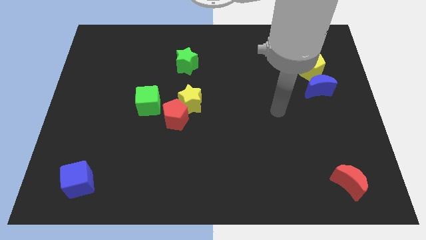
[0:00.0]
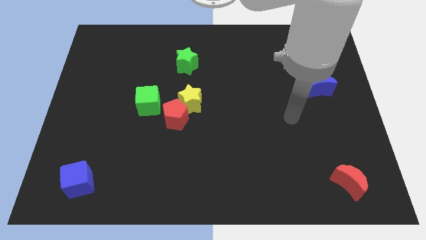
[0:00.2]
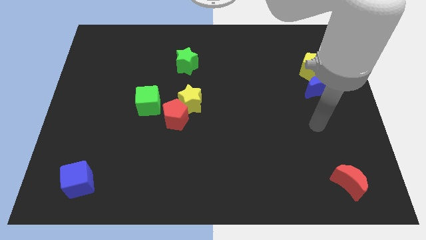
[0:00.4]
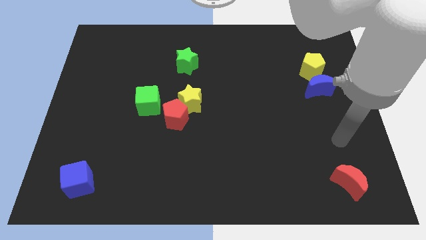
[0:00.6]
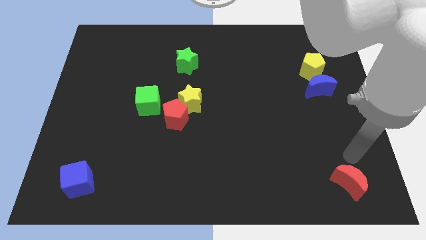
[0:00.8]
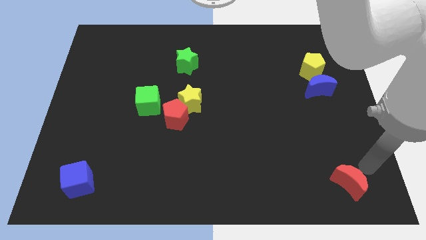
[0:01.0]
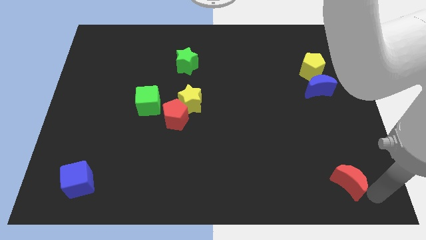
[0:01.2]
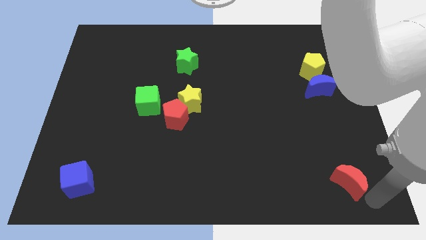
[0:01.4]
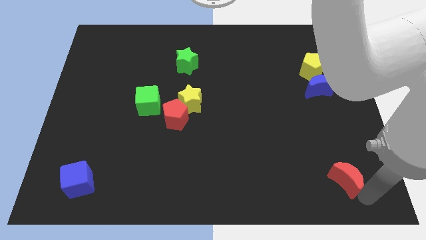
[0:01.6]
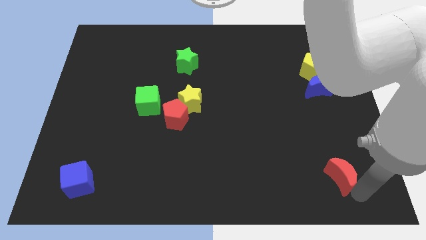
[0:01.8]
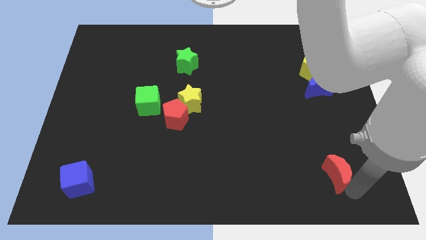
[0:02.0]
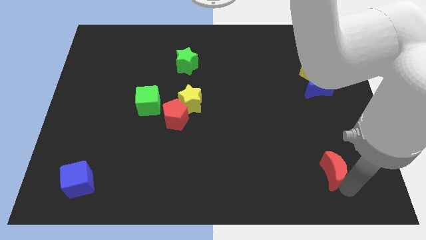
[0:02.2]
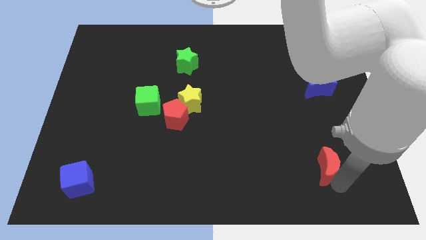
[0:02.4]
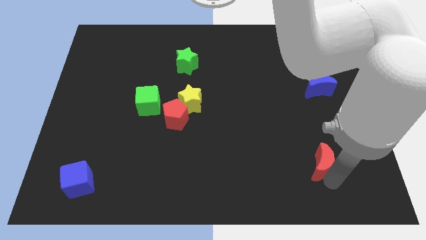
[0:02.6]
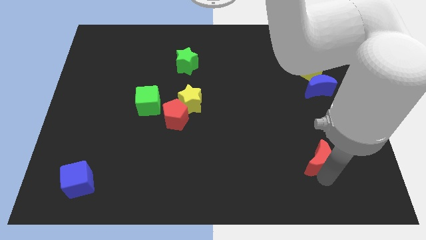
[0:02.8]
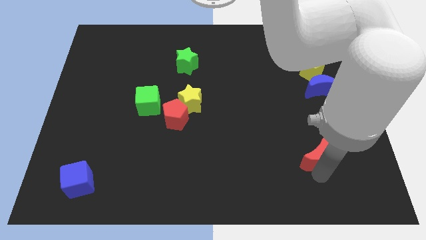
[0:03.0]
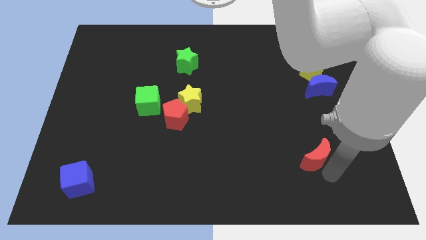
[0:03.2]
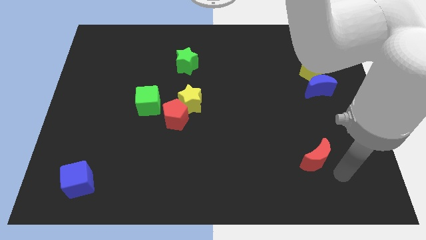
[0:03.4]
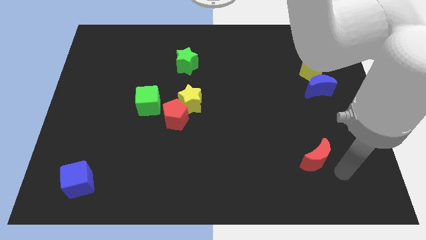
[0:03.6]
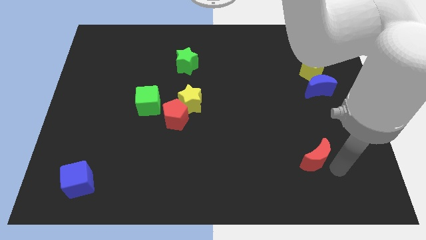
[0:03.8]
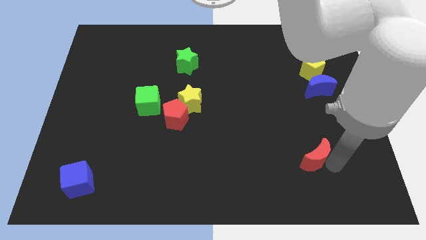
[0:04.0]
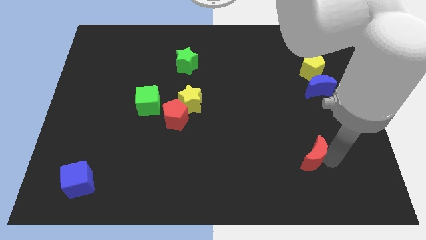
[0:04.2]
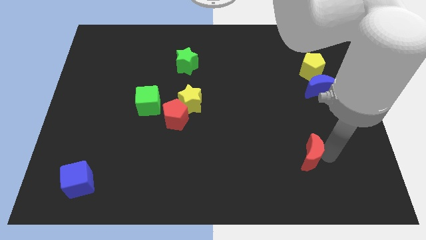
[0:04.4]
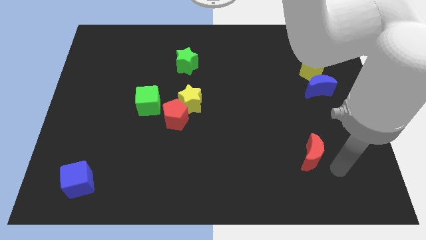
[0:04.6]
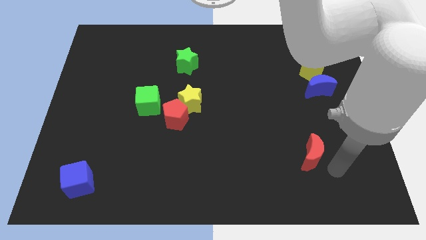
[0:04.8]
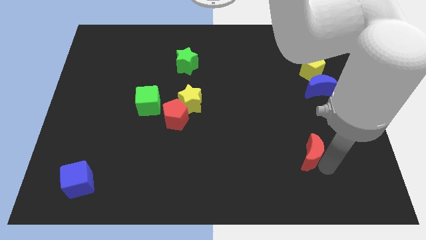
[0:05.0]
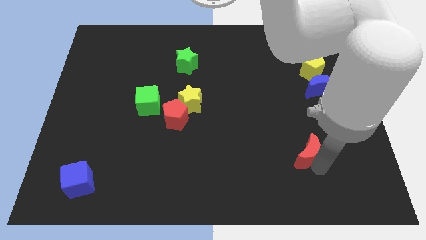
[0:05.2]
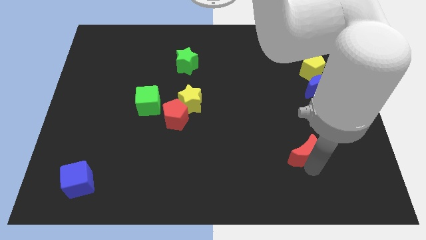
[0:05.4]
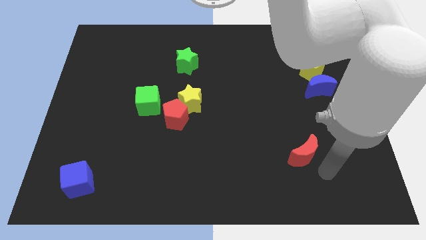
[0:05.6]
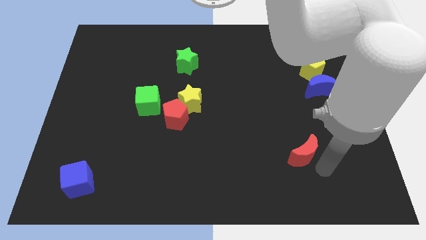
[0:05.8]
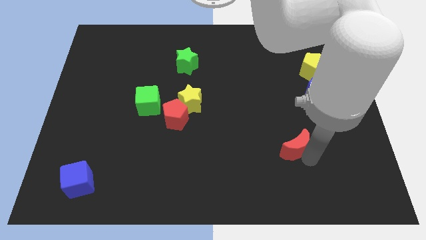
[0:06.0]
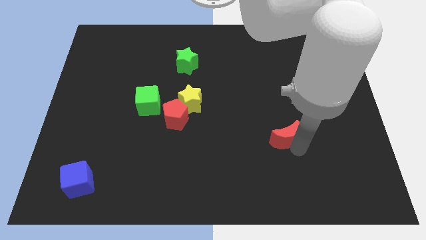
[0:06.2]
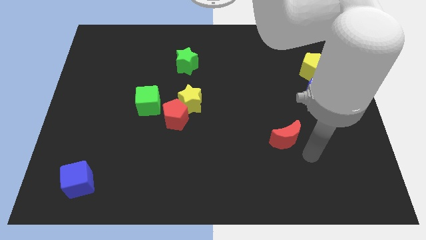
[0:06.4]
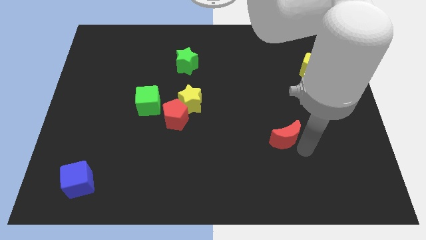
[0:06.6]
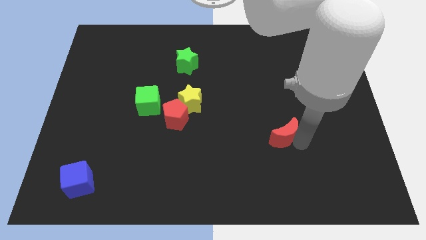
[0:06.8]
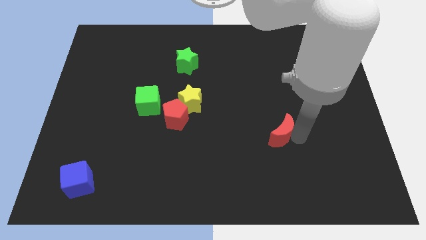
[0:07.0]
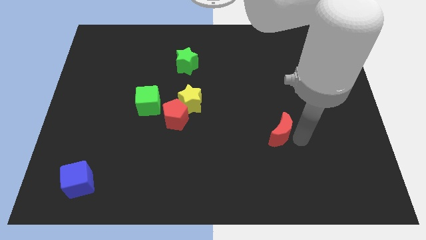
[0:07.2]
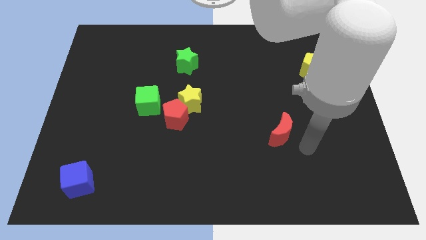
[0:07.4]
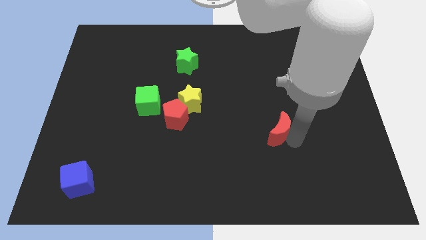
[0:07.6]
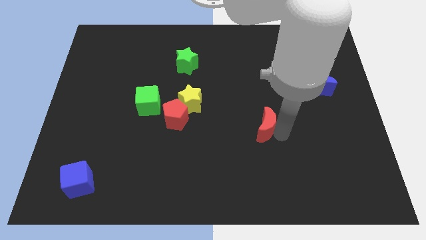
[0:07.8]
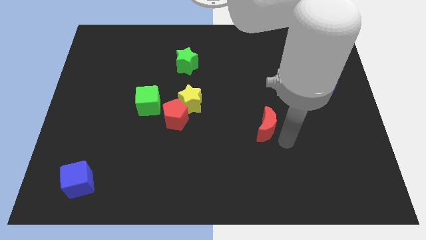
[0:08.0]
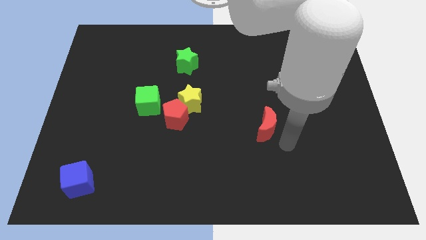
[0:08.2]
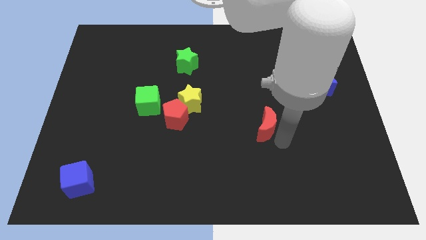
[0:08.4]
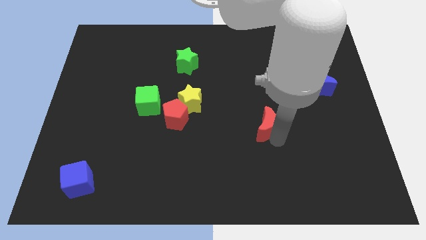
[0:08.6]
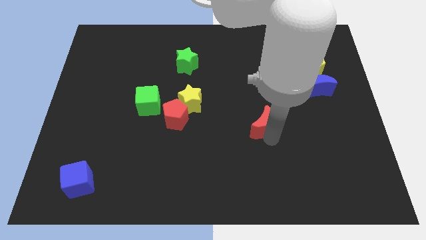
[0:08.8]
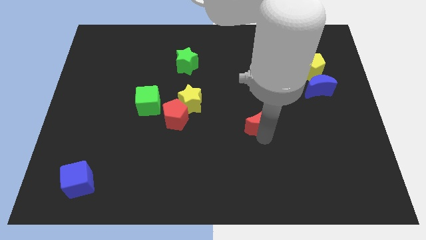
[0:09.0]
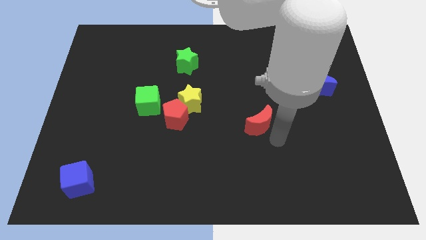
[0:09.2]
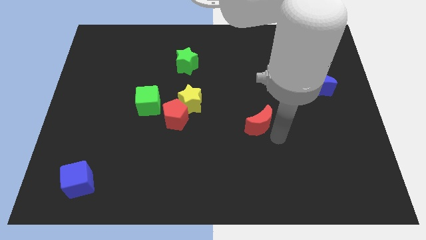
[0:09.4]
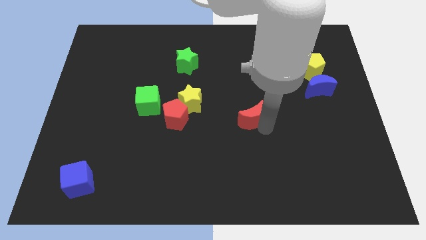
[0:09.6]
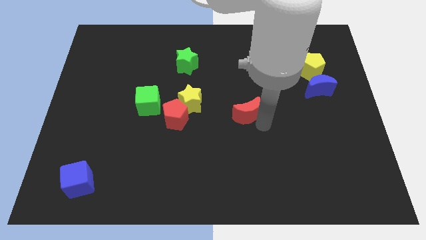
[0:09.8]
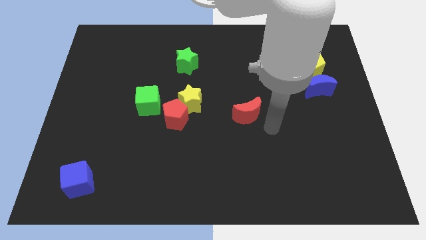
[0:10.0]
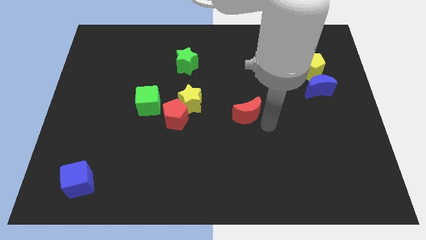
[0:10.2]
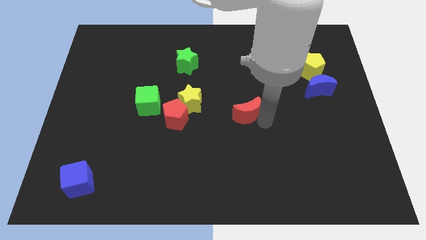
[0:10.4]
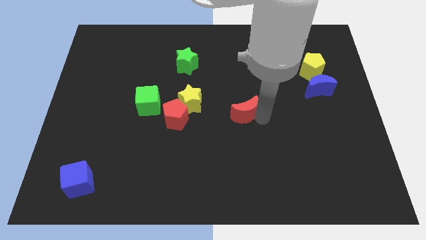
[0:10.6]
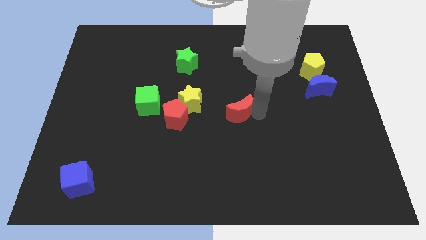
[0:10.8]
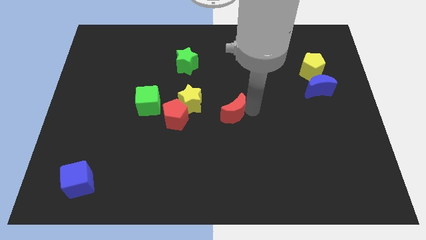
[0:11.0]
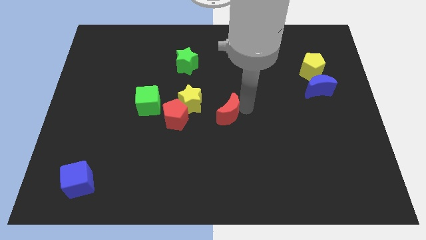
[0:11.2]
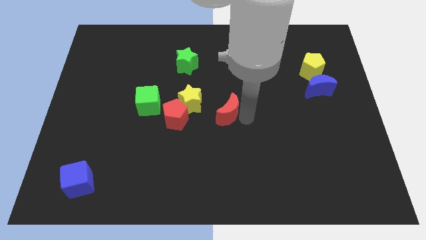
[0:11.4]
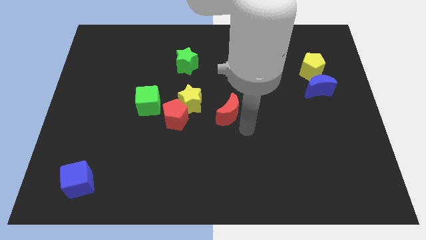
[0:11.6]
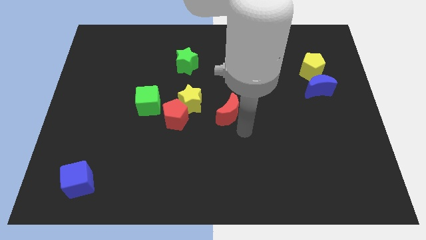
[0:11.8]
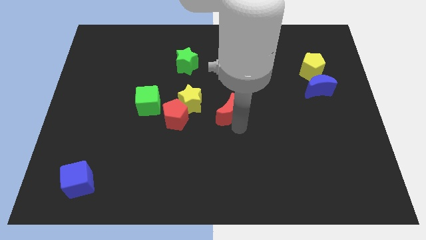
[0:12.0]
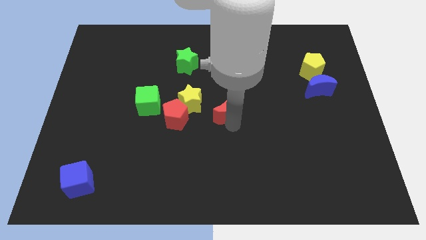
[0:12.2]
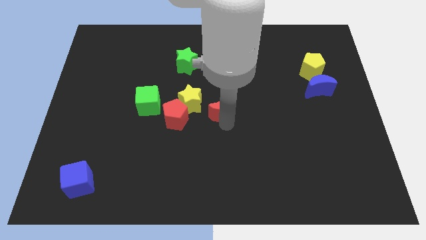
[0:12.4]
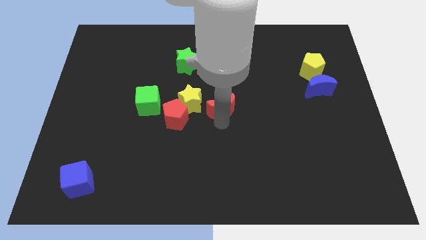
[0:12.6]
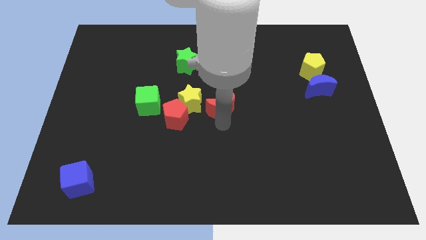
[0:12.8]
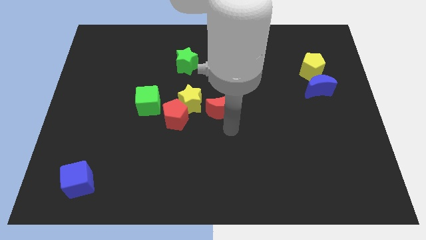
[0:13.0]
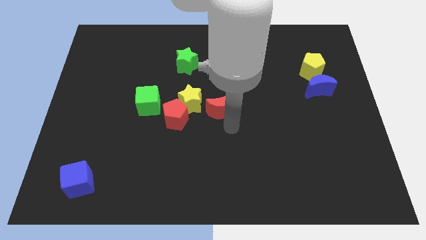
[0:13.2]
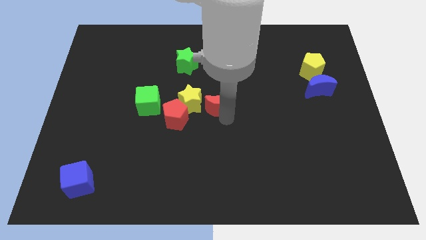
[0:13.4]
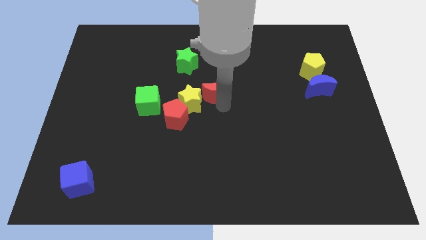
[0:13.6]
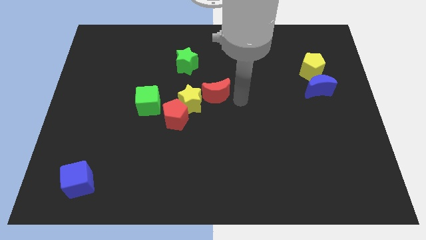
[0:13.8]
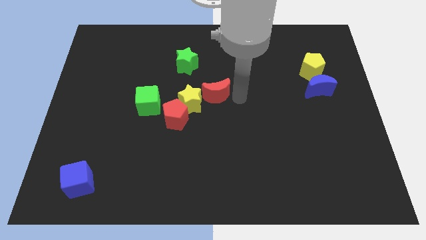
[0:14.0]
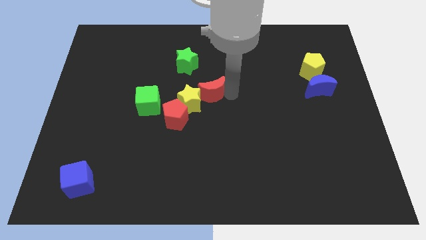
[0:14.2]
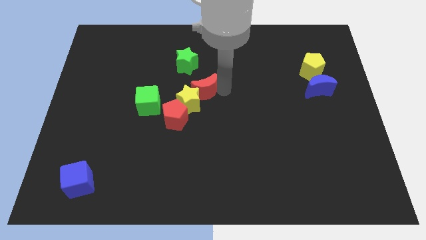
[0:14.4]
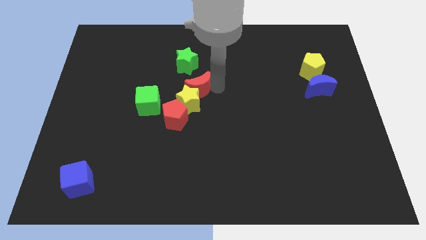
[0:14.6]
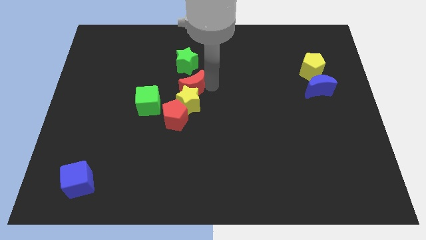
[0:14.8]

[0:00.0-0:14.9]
put the red moon to the top right of the green cube
